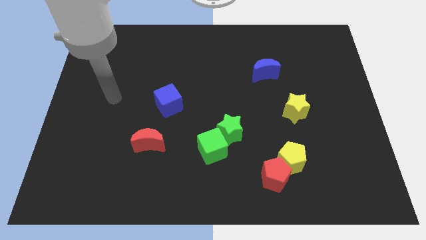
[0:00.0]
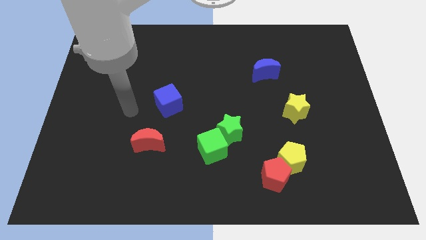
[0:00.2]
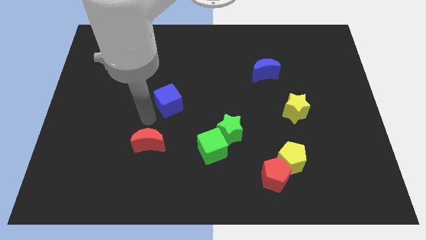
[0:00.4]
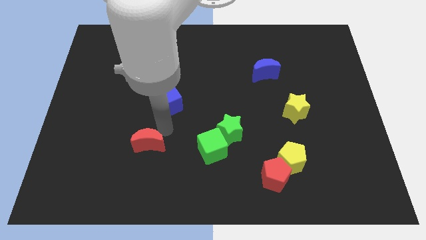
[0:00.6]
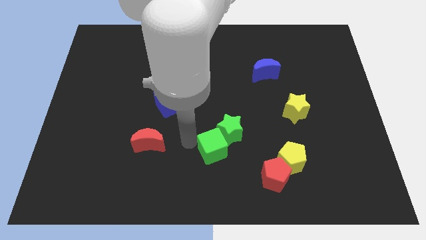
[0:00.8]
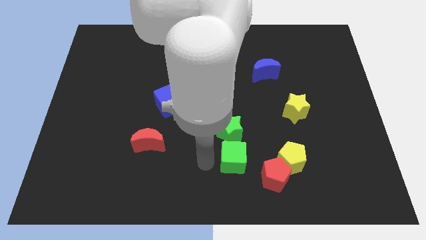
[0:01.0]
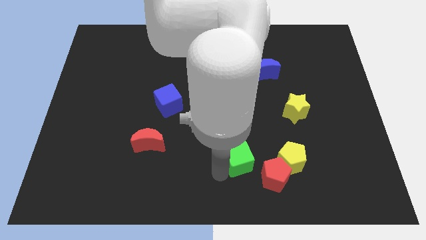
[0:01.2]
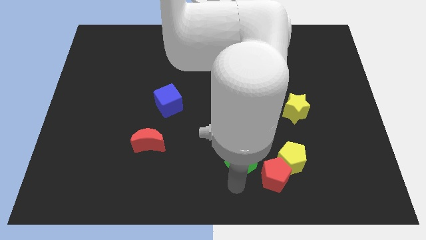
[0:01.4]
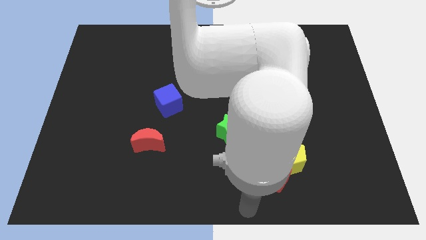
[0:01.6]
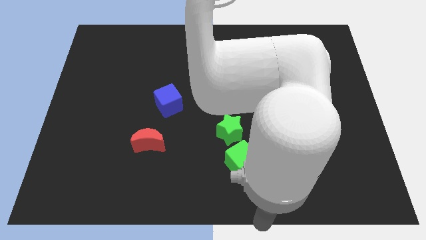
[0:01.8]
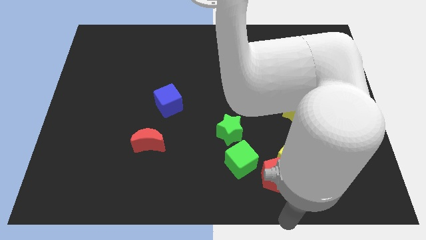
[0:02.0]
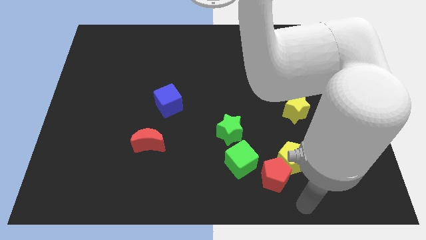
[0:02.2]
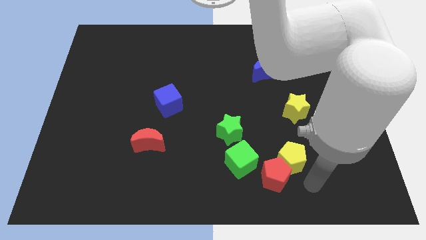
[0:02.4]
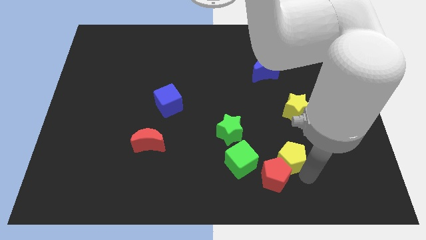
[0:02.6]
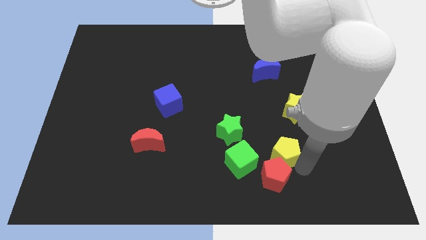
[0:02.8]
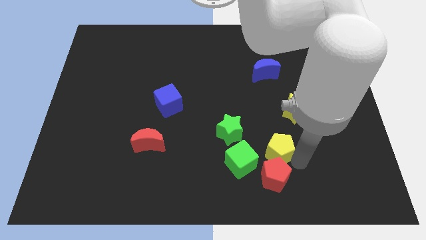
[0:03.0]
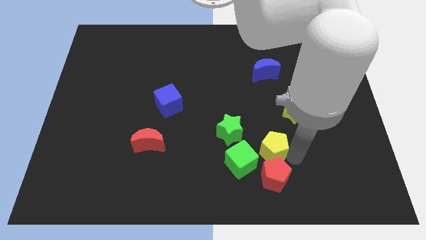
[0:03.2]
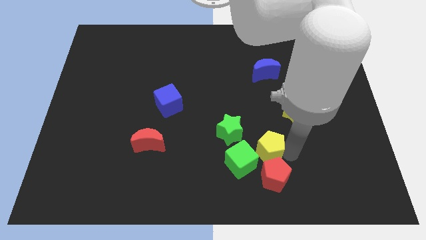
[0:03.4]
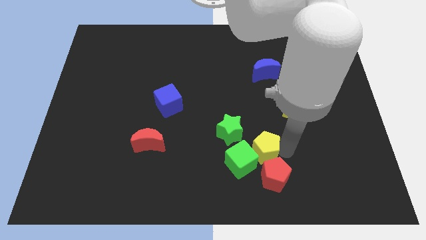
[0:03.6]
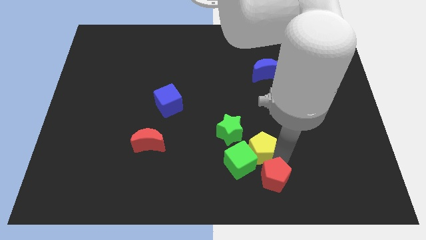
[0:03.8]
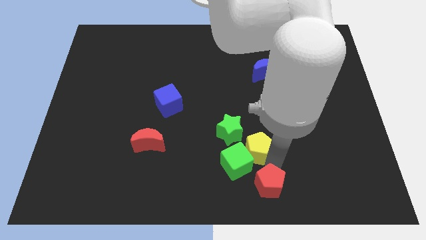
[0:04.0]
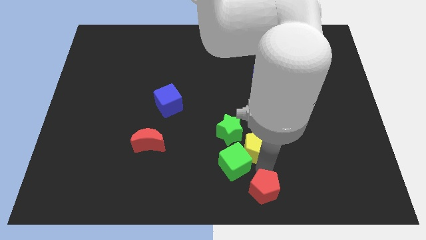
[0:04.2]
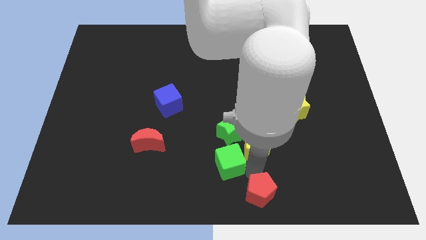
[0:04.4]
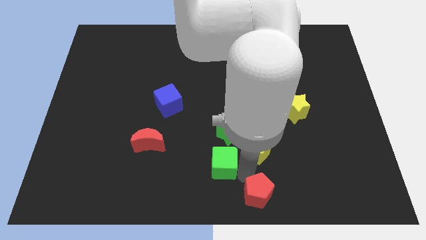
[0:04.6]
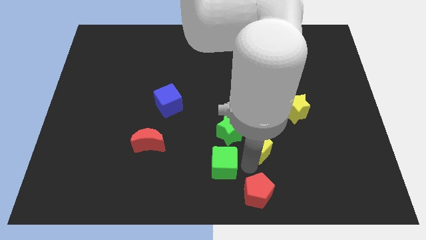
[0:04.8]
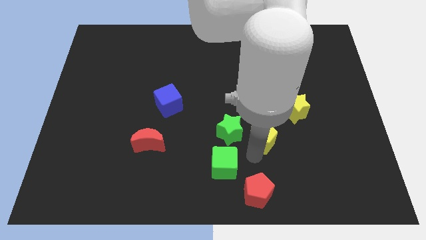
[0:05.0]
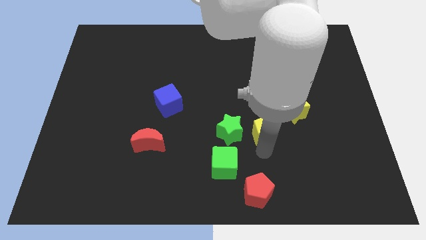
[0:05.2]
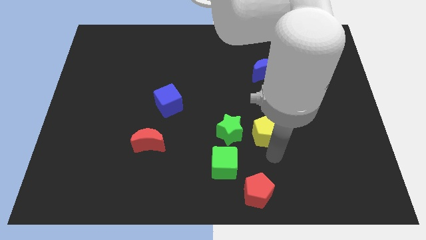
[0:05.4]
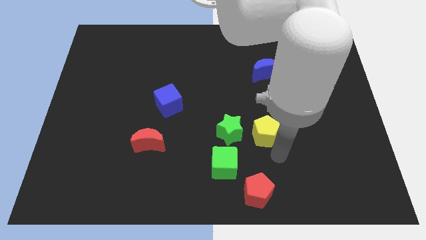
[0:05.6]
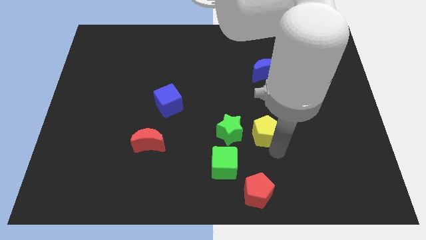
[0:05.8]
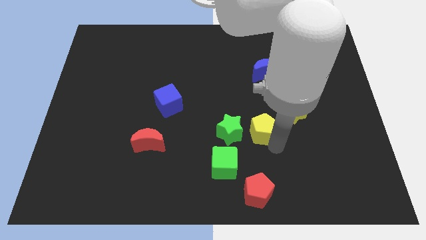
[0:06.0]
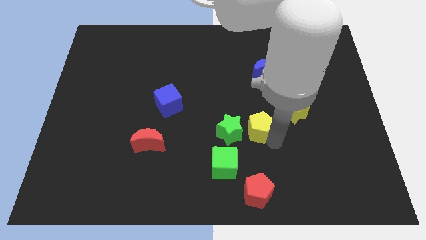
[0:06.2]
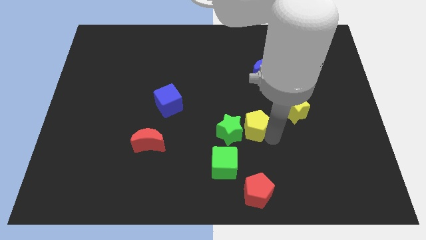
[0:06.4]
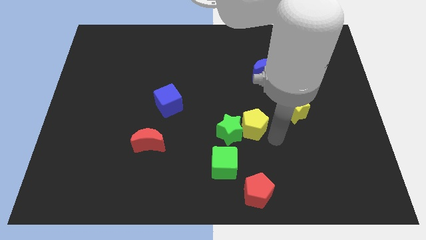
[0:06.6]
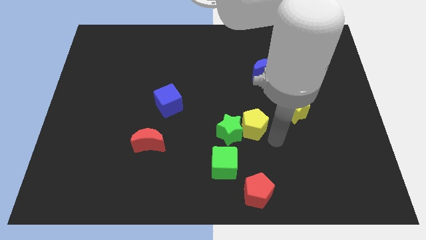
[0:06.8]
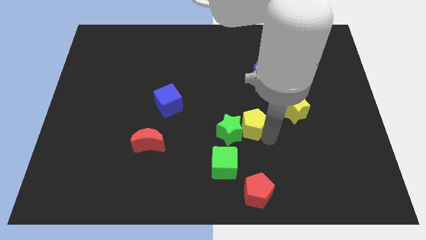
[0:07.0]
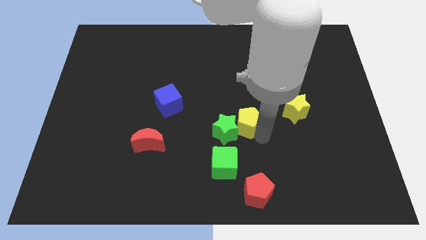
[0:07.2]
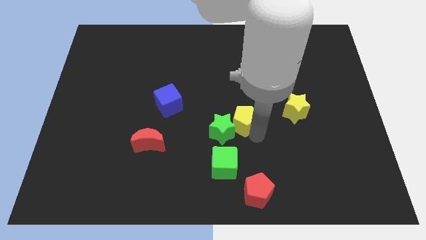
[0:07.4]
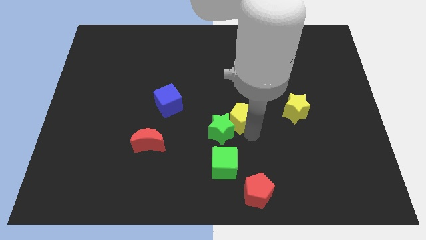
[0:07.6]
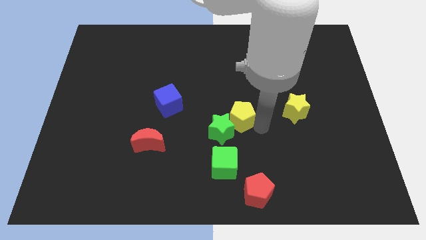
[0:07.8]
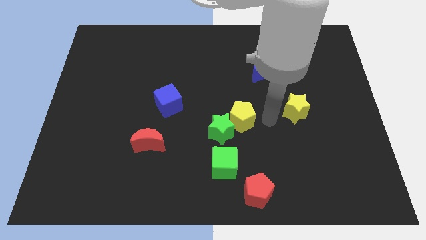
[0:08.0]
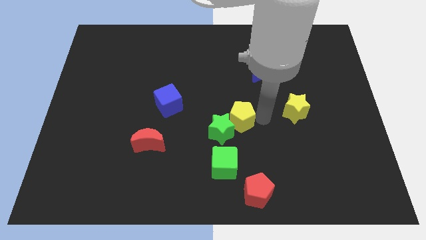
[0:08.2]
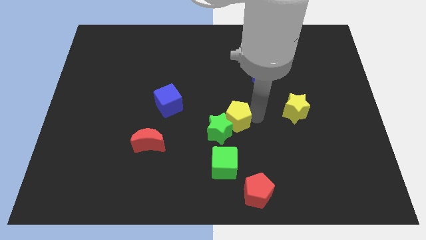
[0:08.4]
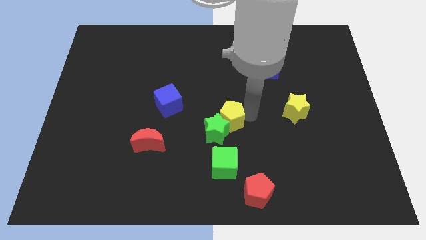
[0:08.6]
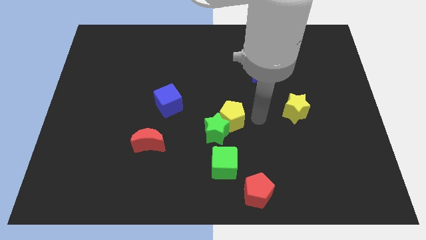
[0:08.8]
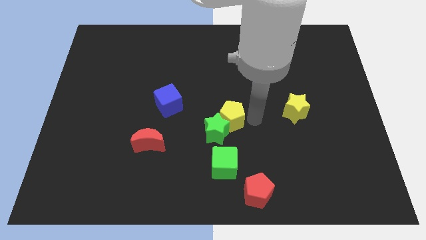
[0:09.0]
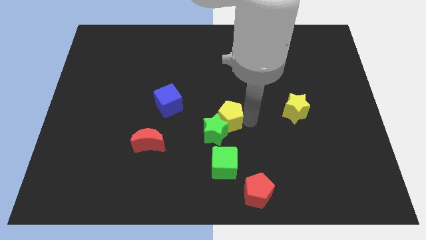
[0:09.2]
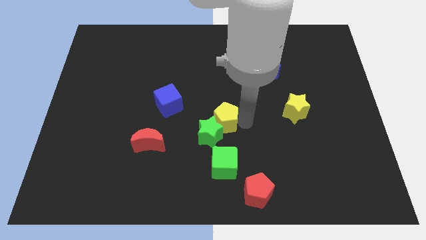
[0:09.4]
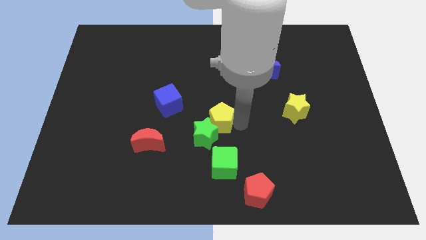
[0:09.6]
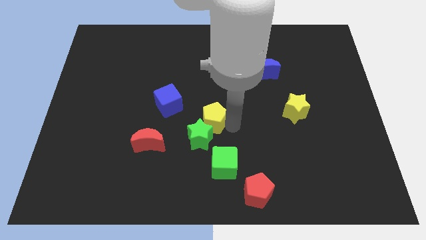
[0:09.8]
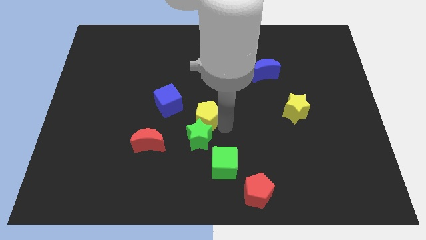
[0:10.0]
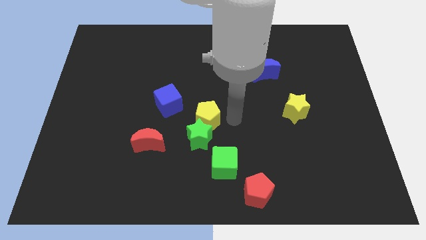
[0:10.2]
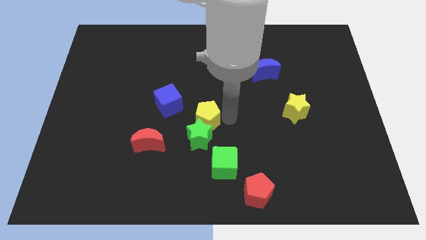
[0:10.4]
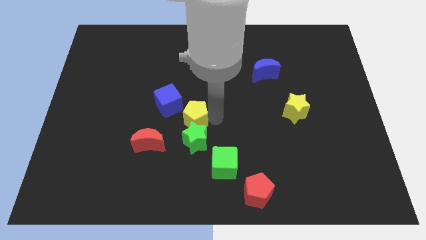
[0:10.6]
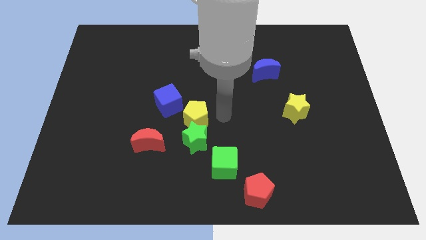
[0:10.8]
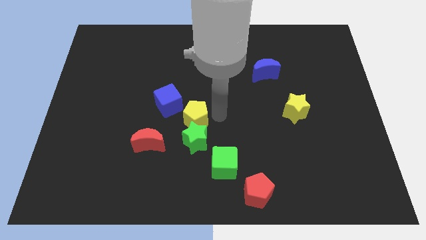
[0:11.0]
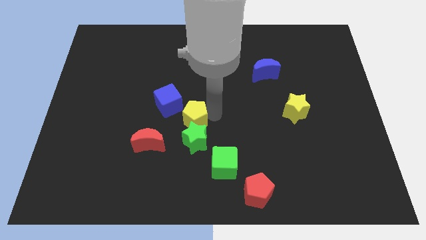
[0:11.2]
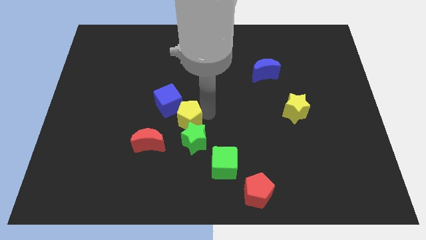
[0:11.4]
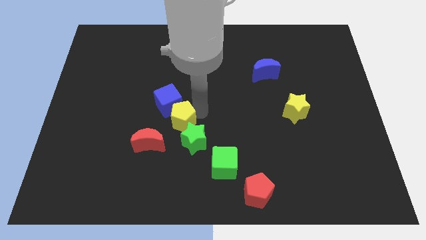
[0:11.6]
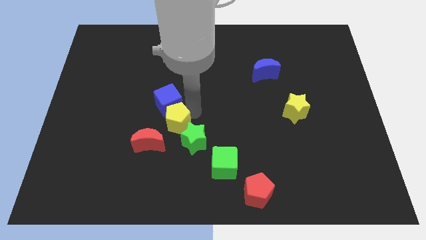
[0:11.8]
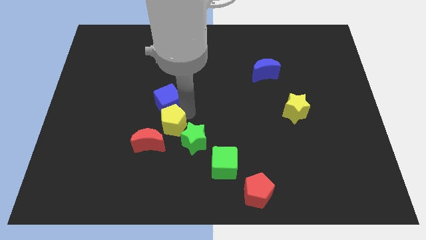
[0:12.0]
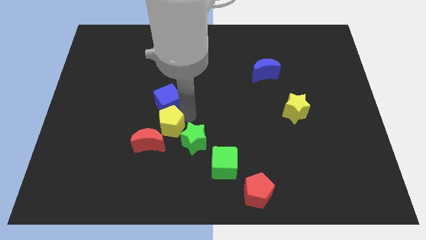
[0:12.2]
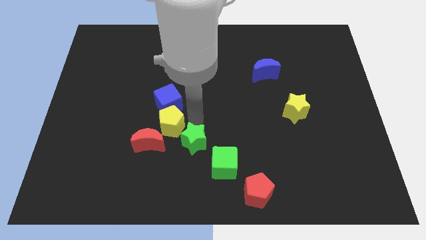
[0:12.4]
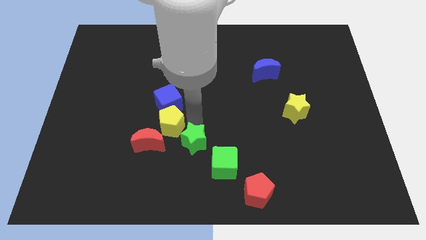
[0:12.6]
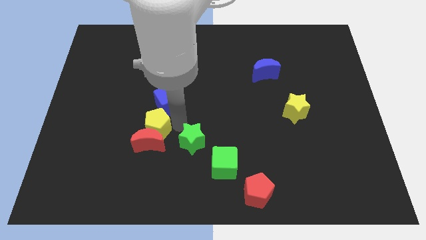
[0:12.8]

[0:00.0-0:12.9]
push the yellow pentagon to the top left of the red moon
